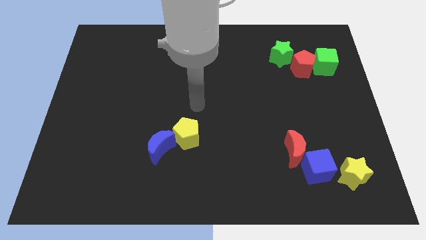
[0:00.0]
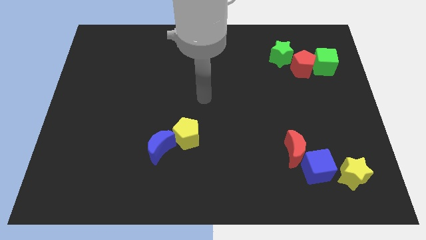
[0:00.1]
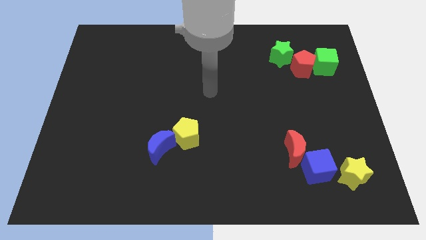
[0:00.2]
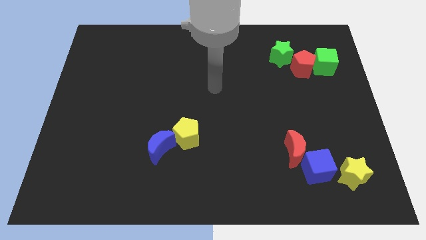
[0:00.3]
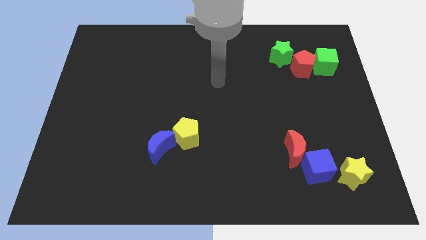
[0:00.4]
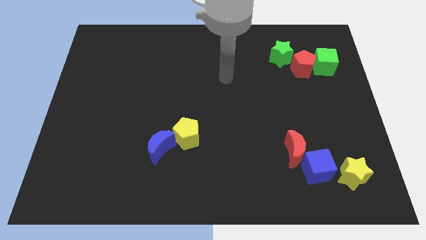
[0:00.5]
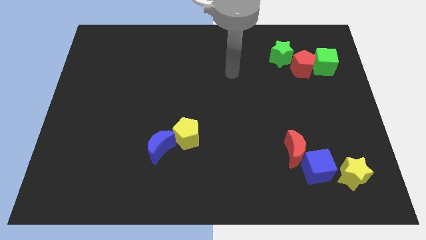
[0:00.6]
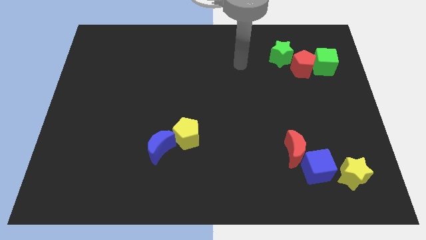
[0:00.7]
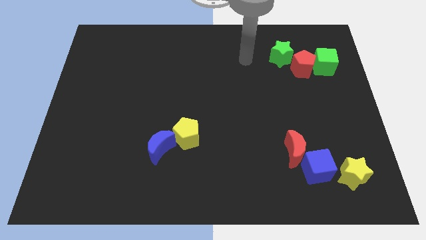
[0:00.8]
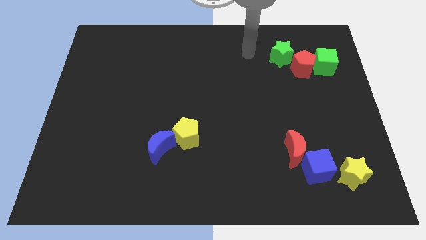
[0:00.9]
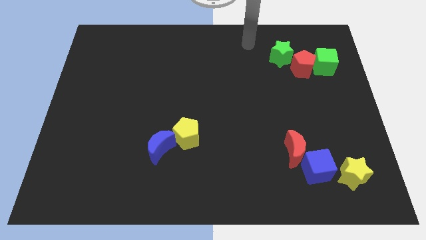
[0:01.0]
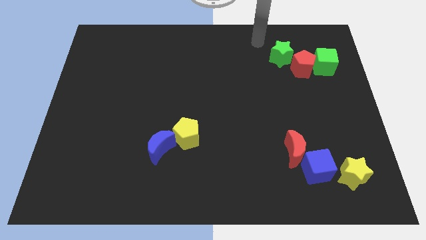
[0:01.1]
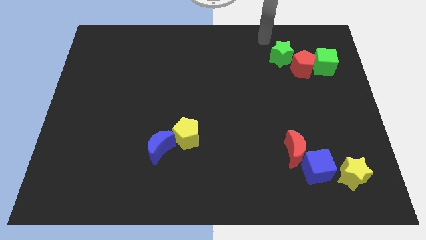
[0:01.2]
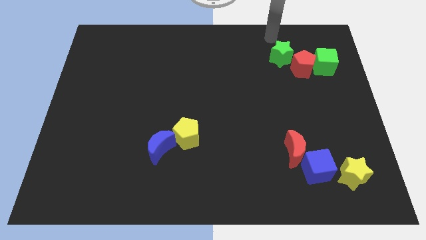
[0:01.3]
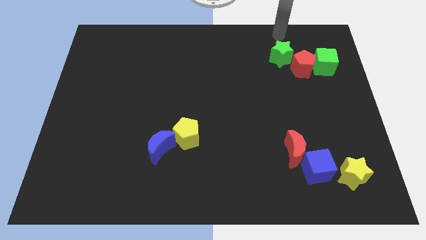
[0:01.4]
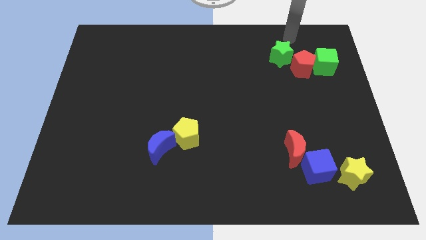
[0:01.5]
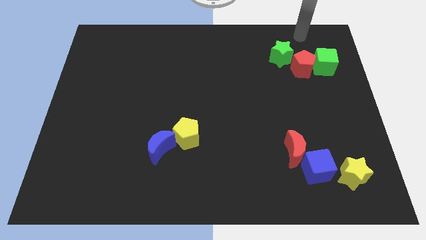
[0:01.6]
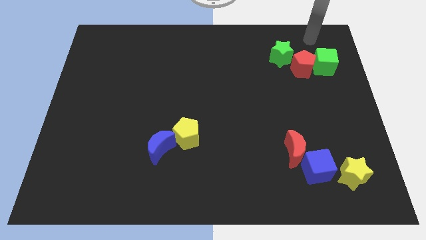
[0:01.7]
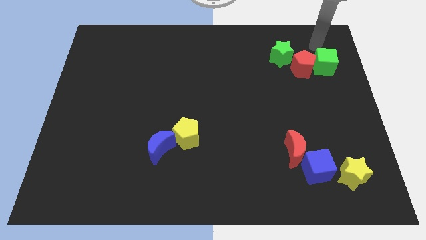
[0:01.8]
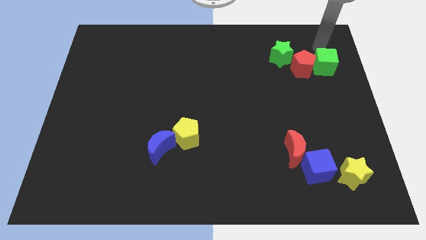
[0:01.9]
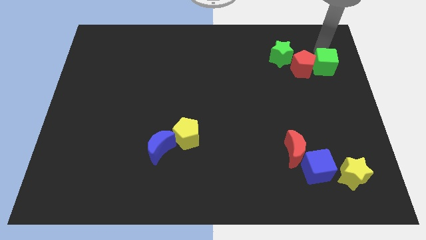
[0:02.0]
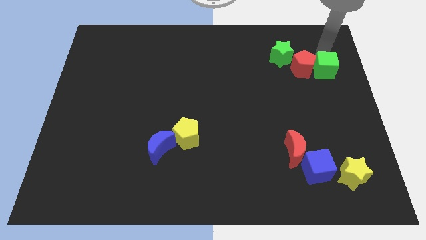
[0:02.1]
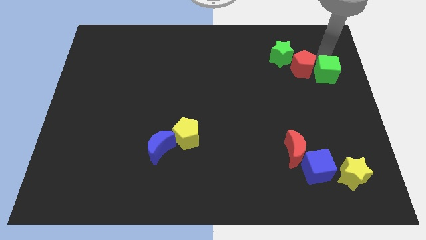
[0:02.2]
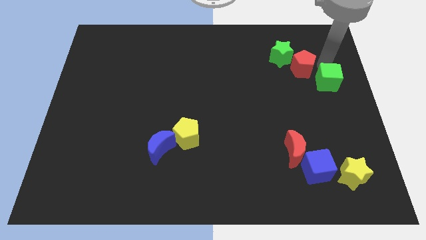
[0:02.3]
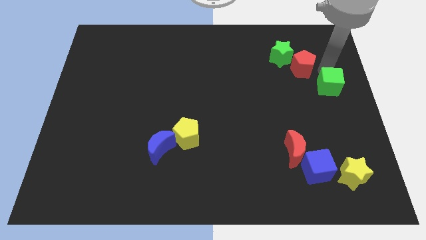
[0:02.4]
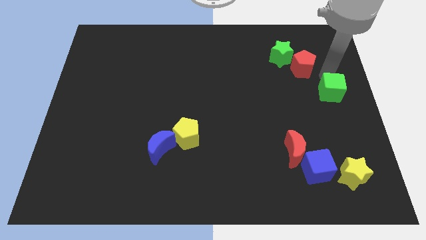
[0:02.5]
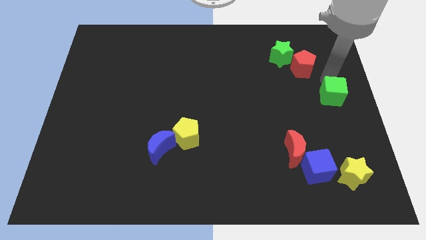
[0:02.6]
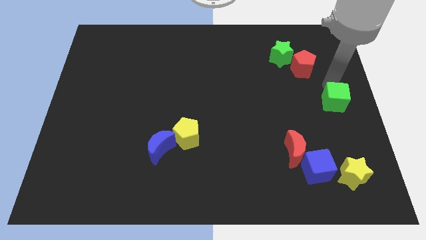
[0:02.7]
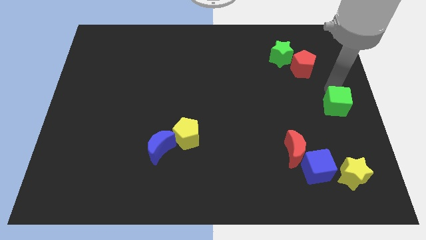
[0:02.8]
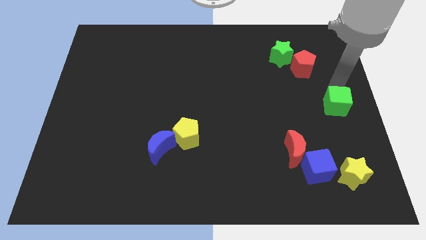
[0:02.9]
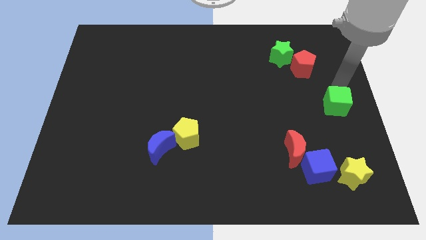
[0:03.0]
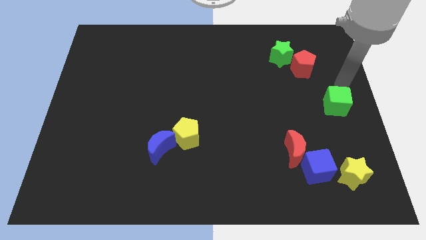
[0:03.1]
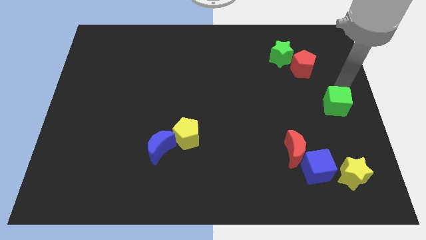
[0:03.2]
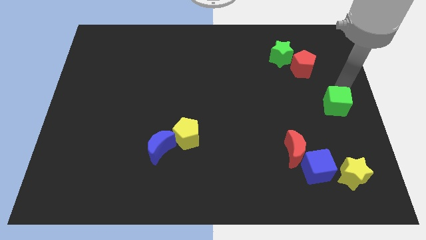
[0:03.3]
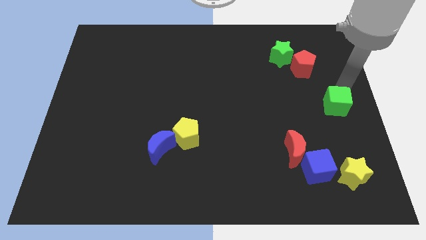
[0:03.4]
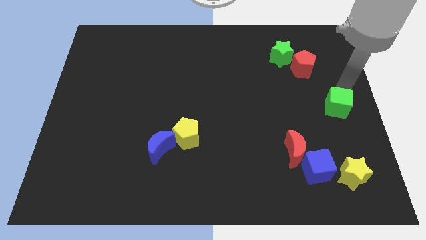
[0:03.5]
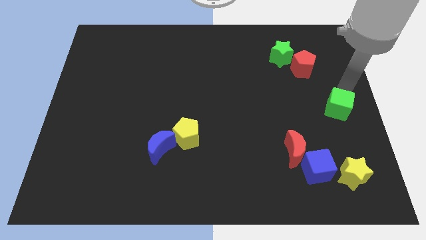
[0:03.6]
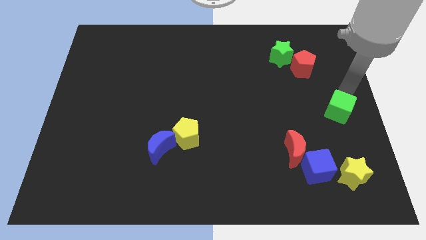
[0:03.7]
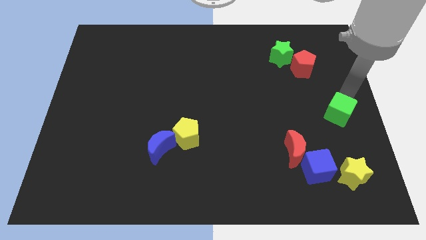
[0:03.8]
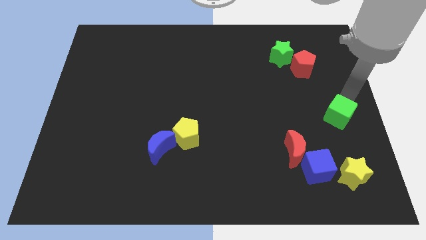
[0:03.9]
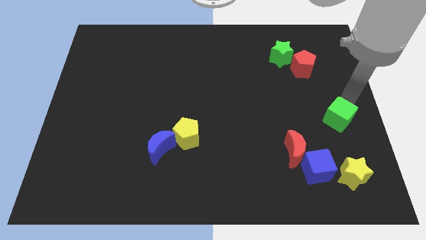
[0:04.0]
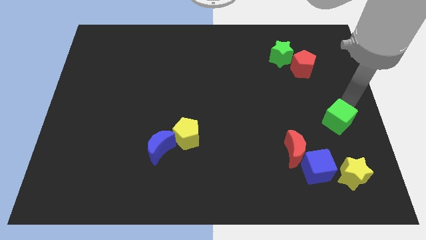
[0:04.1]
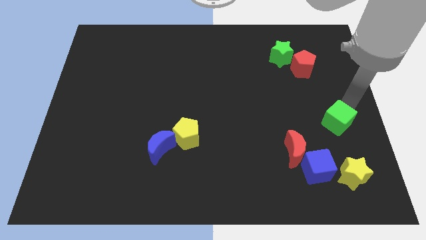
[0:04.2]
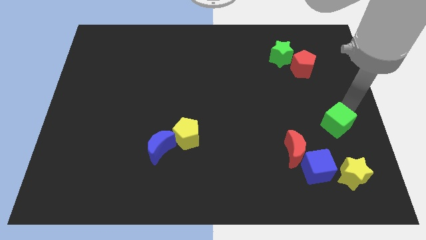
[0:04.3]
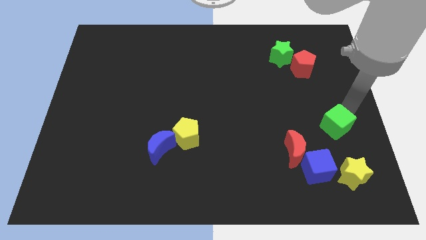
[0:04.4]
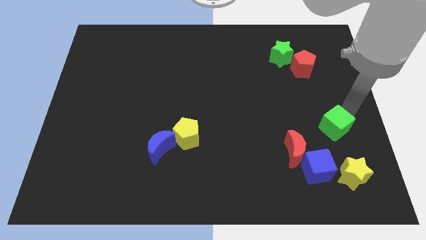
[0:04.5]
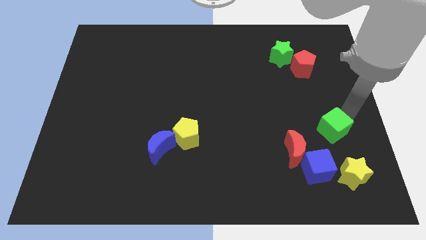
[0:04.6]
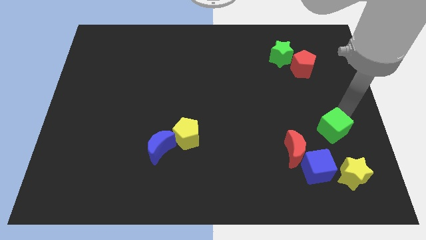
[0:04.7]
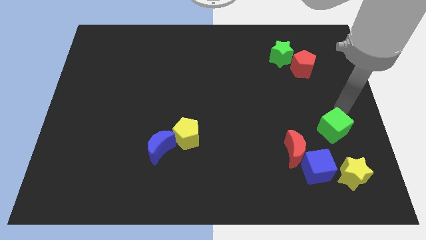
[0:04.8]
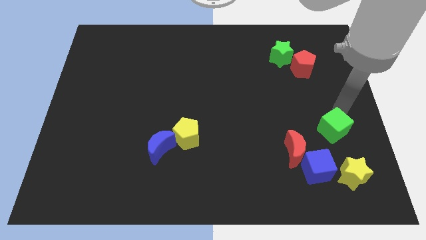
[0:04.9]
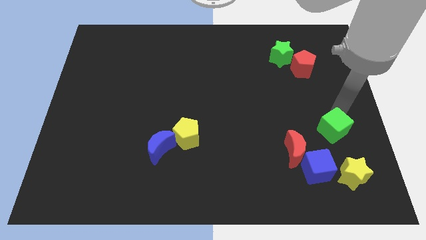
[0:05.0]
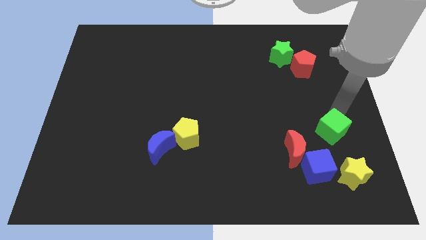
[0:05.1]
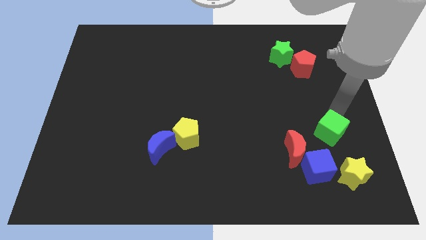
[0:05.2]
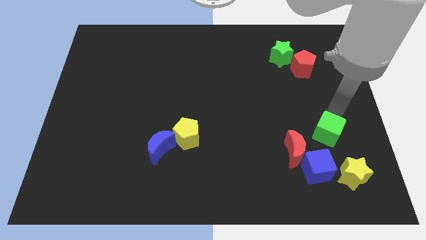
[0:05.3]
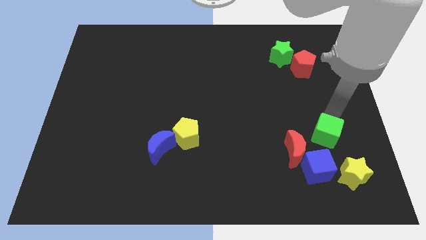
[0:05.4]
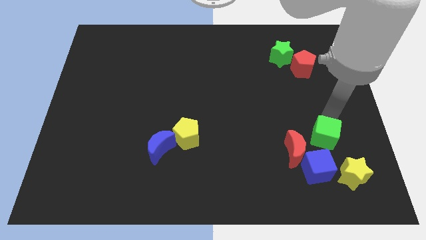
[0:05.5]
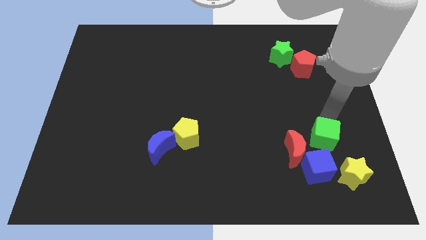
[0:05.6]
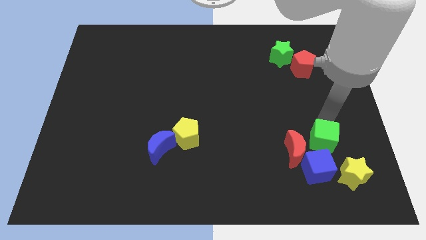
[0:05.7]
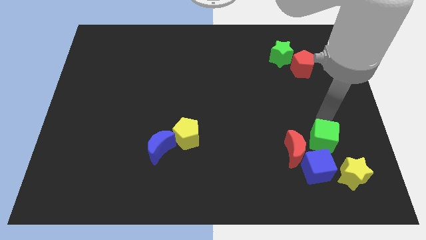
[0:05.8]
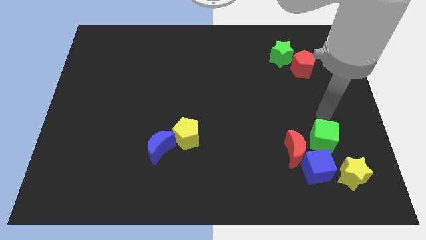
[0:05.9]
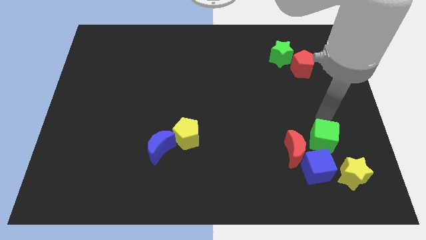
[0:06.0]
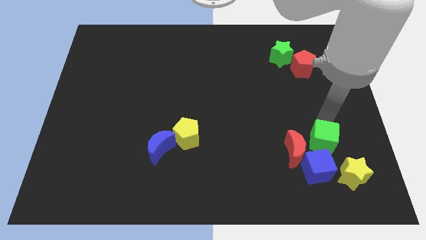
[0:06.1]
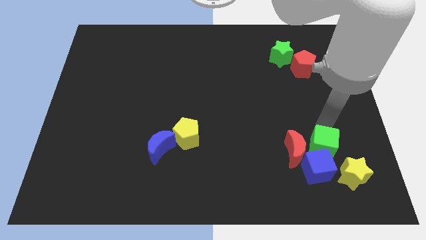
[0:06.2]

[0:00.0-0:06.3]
move the green cube to the blue cube

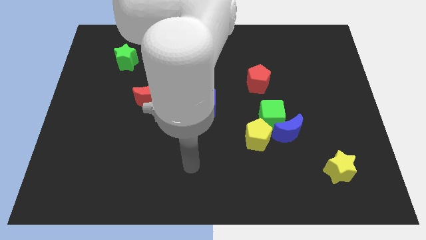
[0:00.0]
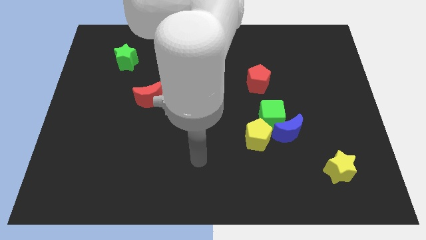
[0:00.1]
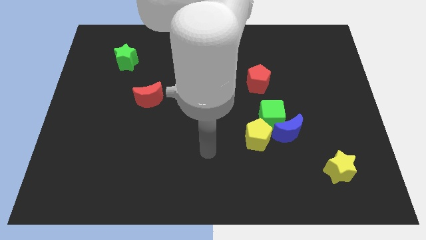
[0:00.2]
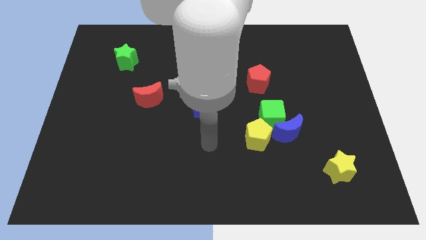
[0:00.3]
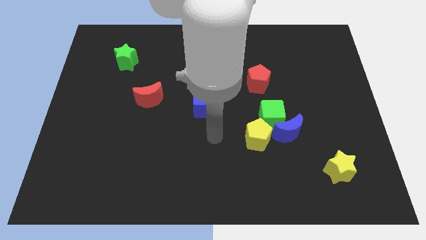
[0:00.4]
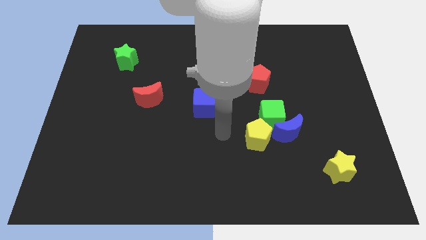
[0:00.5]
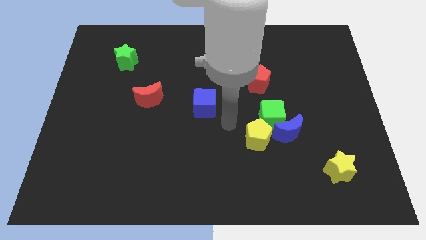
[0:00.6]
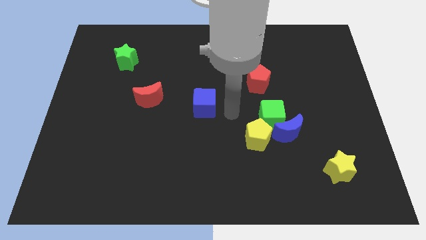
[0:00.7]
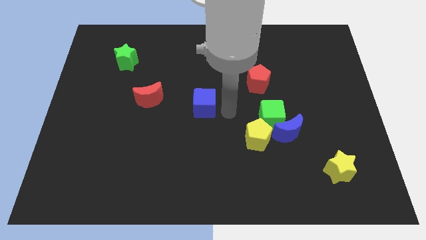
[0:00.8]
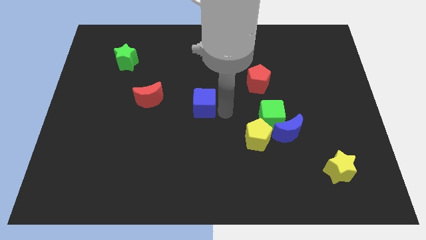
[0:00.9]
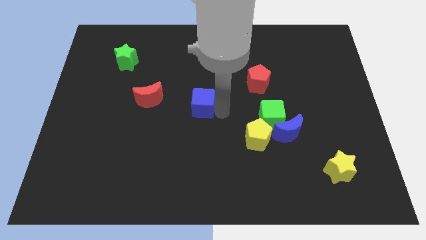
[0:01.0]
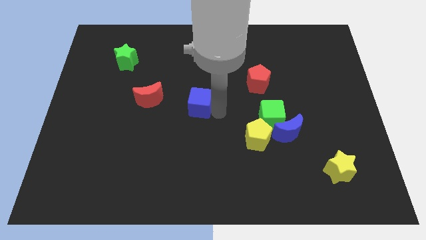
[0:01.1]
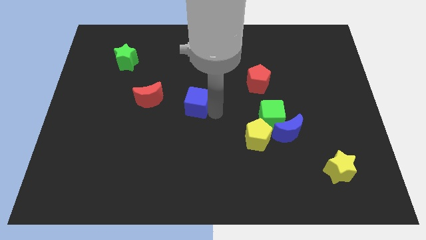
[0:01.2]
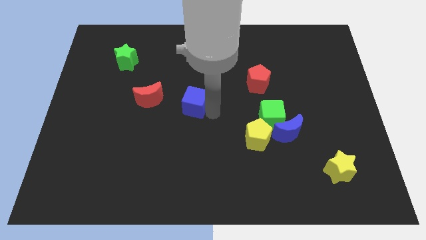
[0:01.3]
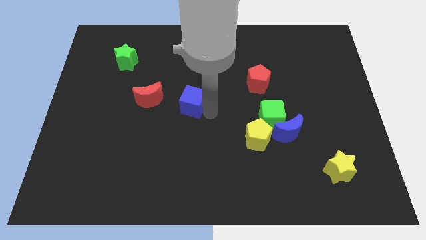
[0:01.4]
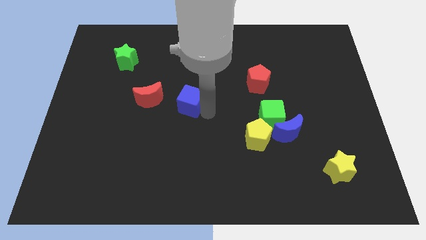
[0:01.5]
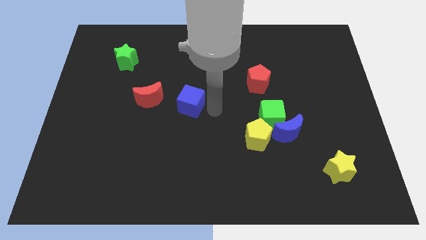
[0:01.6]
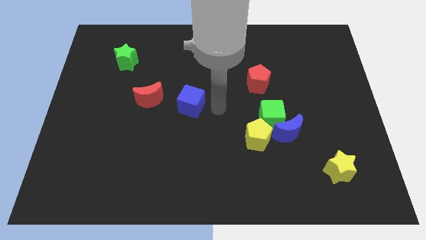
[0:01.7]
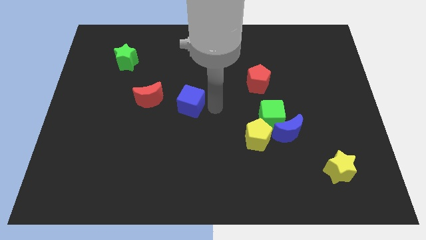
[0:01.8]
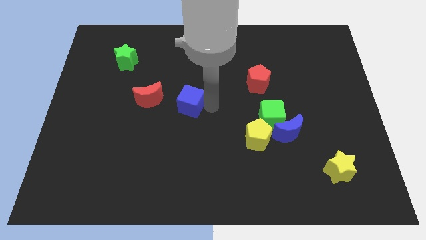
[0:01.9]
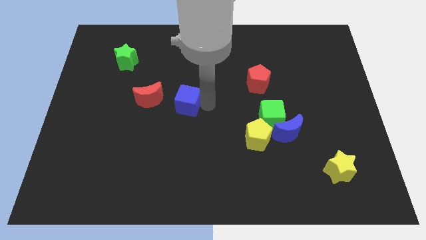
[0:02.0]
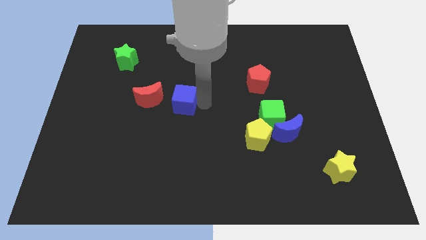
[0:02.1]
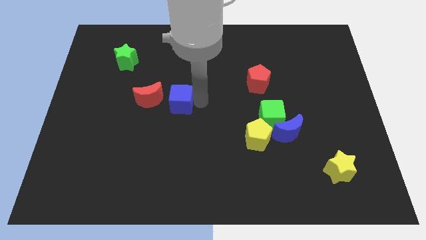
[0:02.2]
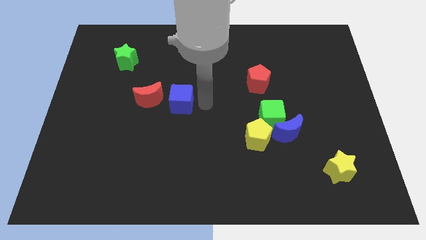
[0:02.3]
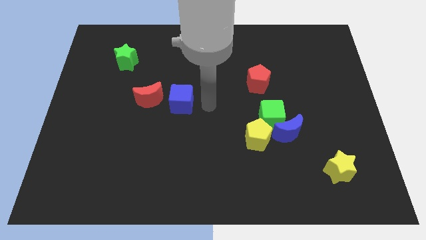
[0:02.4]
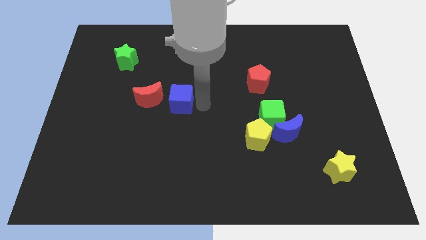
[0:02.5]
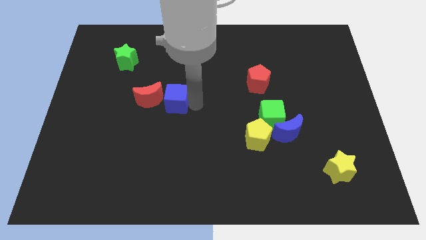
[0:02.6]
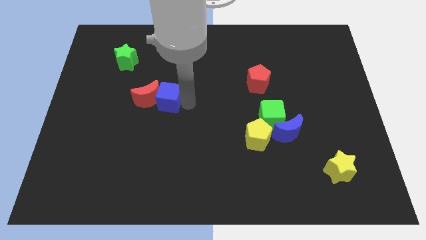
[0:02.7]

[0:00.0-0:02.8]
move the blue cube to the red moon
